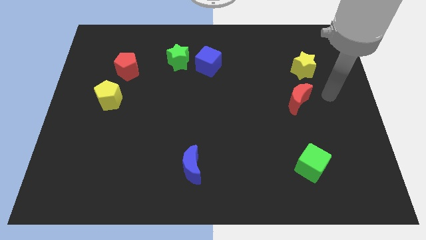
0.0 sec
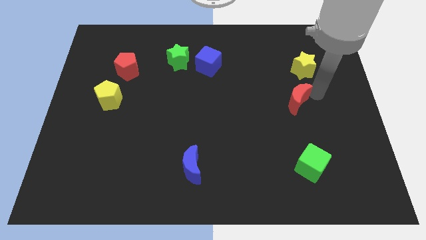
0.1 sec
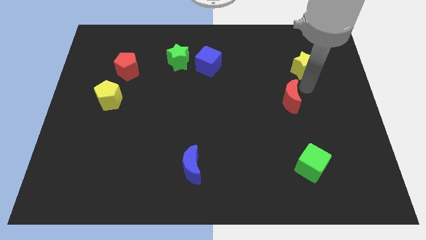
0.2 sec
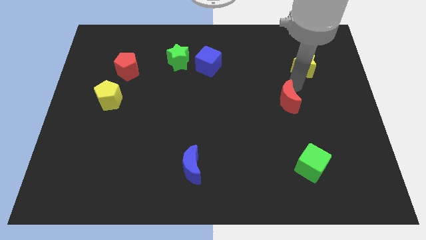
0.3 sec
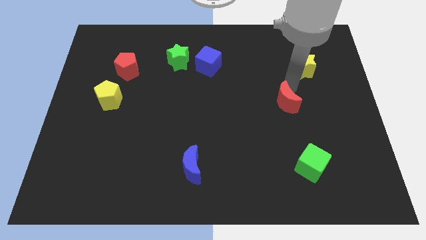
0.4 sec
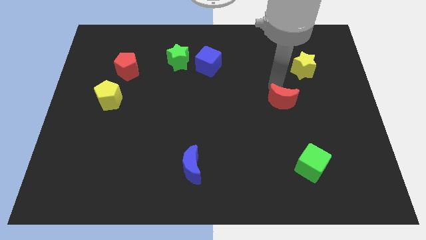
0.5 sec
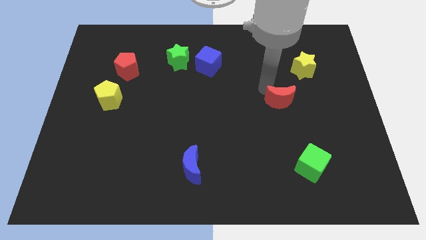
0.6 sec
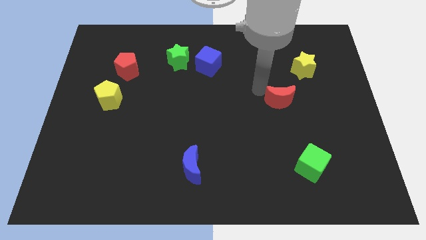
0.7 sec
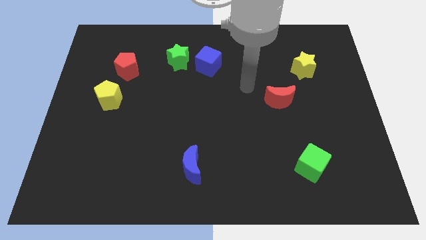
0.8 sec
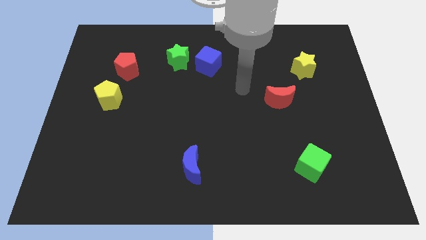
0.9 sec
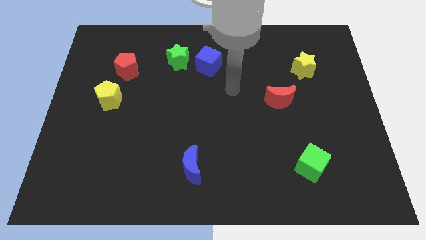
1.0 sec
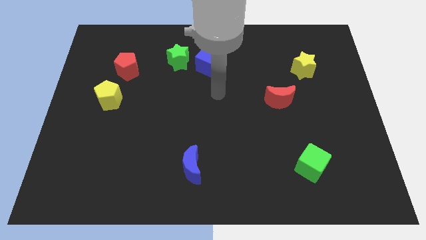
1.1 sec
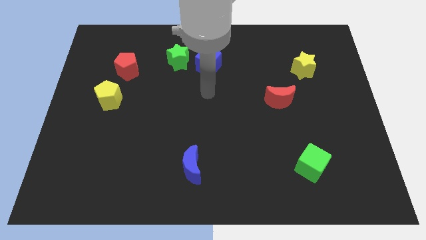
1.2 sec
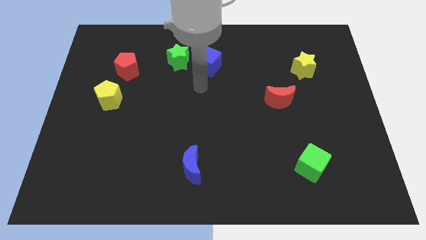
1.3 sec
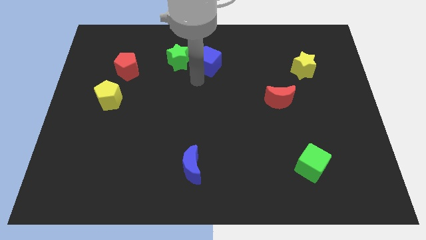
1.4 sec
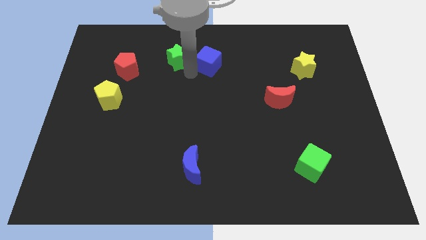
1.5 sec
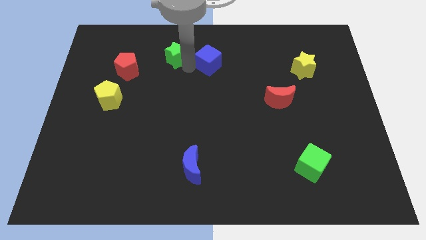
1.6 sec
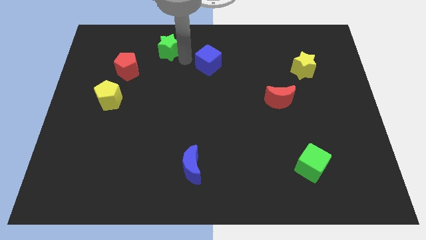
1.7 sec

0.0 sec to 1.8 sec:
move the blue cube away from the green star

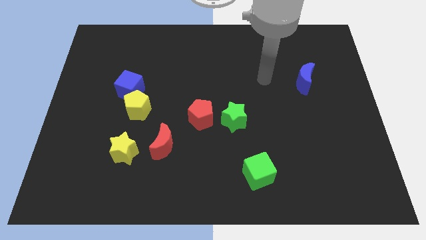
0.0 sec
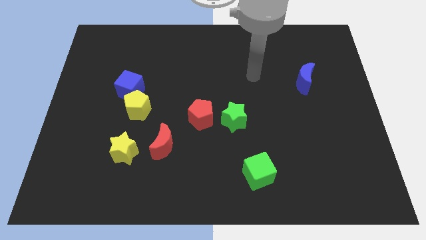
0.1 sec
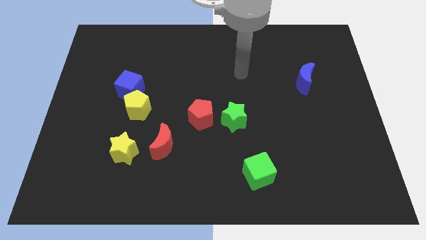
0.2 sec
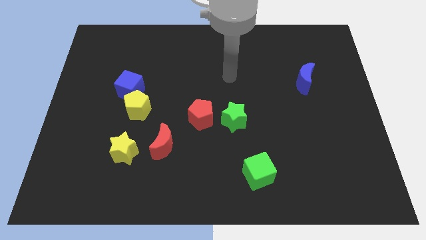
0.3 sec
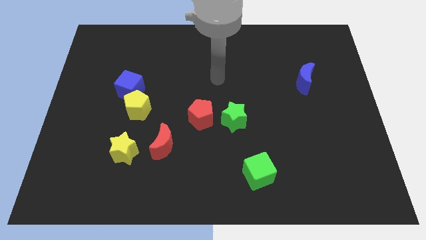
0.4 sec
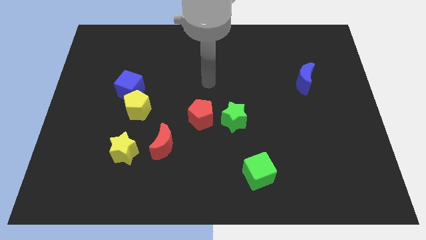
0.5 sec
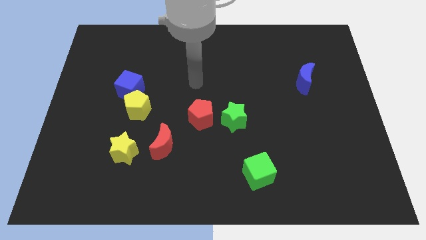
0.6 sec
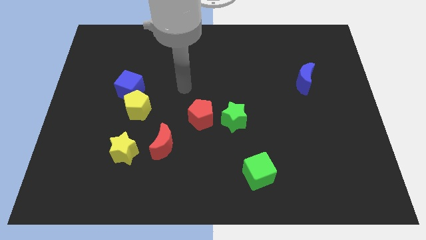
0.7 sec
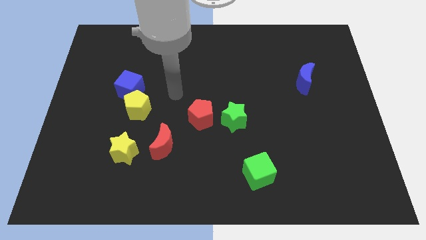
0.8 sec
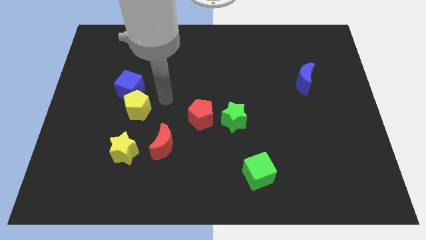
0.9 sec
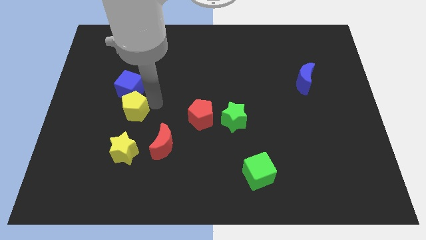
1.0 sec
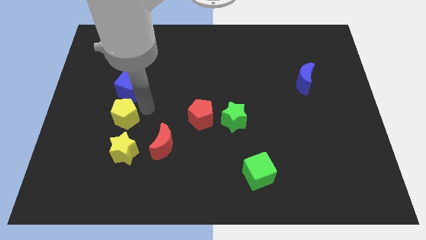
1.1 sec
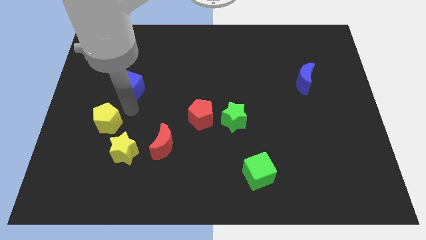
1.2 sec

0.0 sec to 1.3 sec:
move the blue cube away from the yellow pentagon

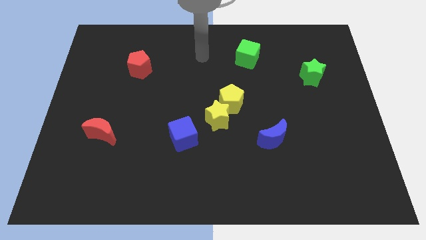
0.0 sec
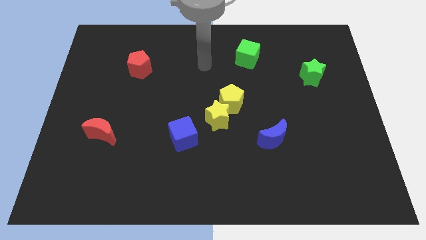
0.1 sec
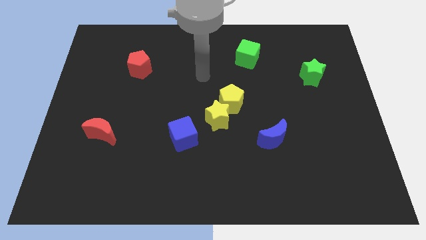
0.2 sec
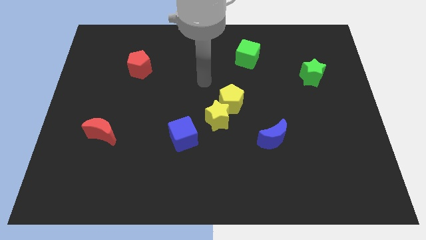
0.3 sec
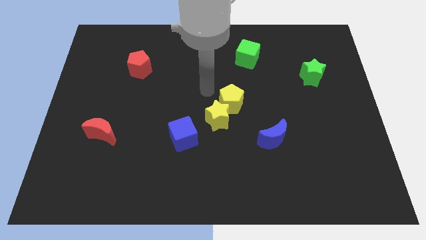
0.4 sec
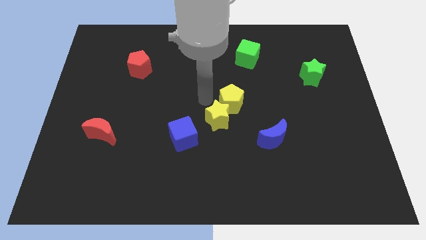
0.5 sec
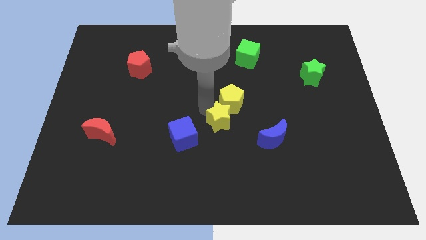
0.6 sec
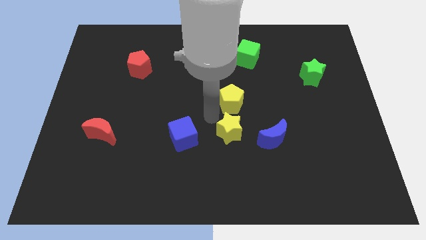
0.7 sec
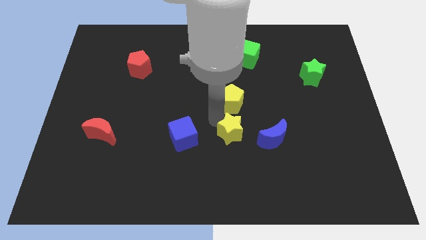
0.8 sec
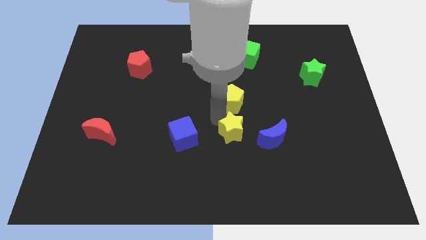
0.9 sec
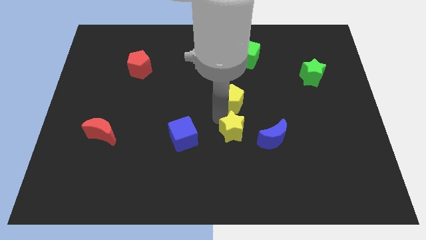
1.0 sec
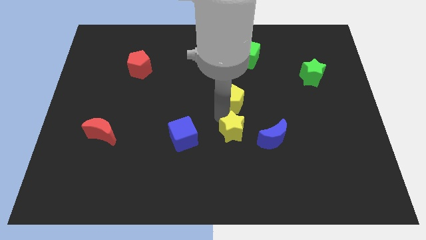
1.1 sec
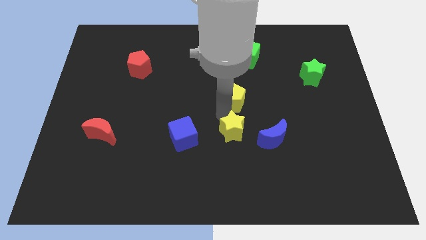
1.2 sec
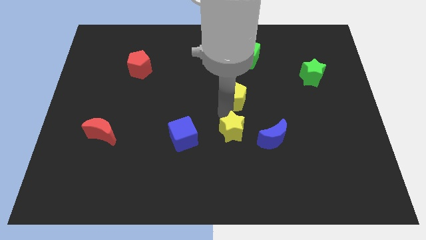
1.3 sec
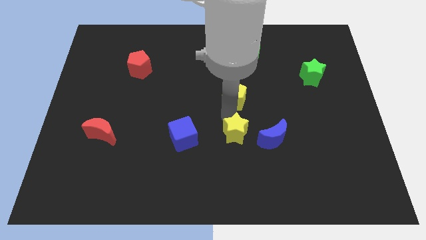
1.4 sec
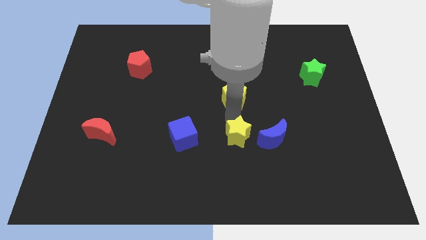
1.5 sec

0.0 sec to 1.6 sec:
pull the yellow pentagon apart from the yellow star

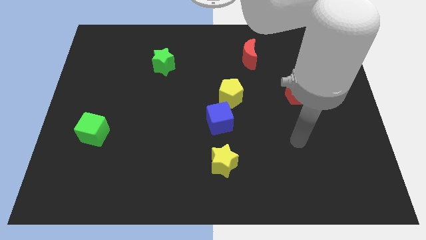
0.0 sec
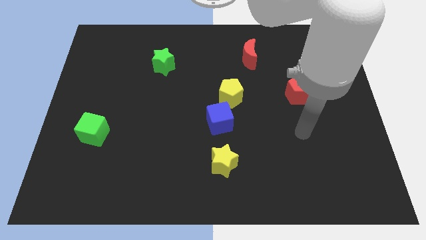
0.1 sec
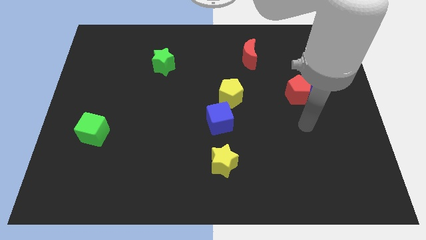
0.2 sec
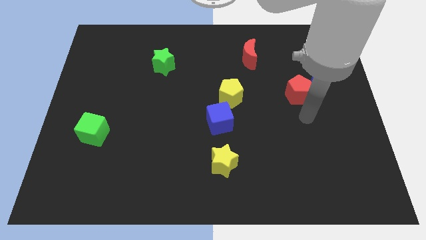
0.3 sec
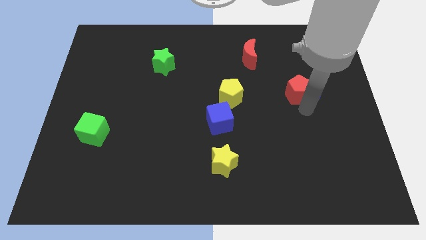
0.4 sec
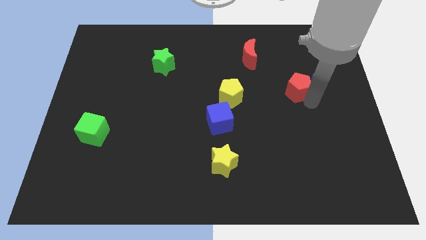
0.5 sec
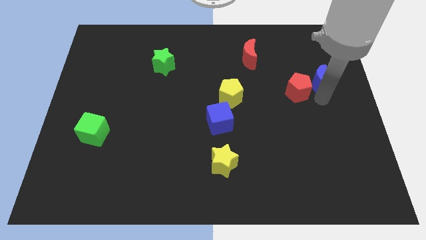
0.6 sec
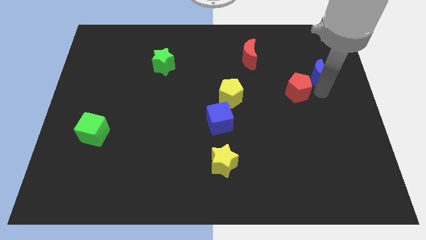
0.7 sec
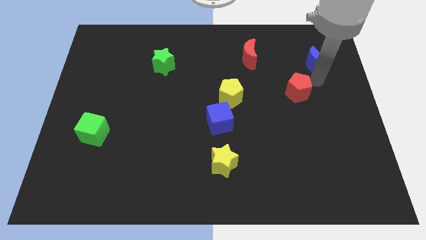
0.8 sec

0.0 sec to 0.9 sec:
move the red pentagon away from the blue moon

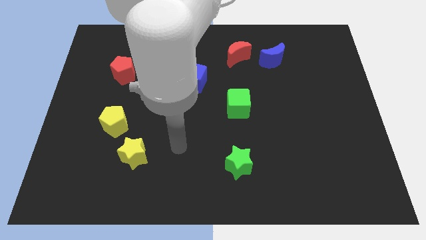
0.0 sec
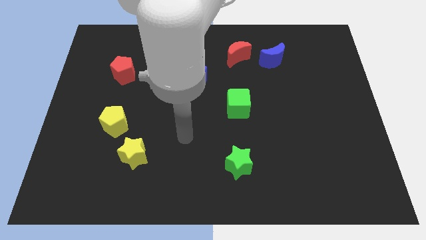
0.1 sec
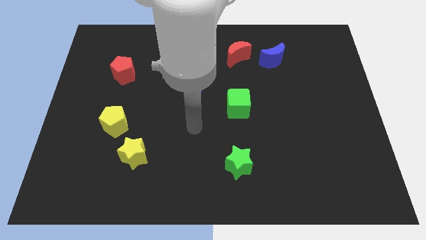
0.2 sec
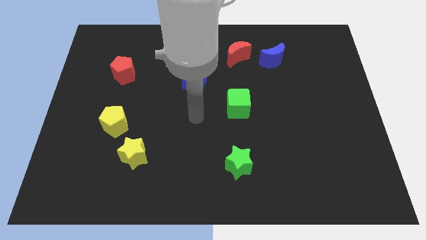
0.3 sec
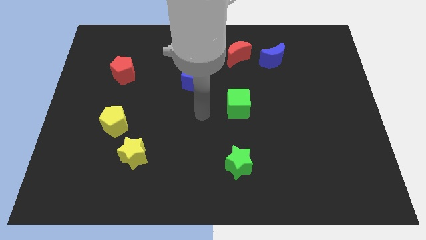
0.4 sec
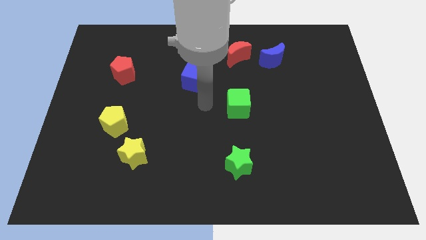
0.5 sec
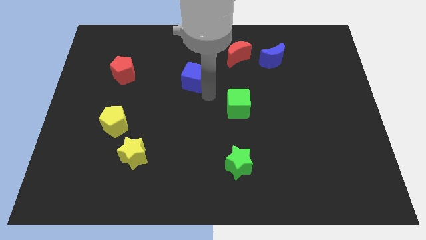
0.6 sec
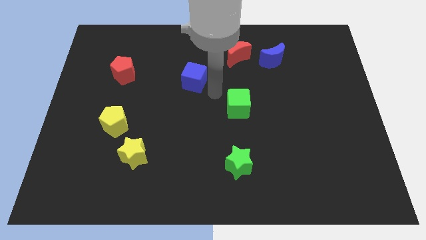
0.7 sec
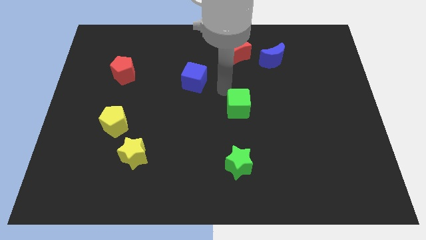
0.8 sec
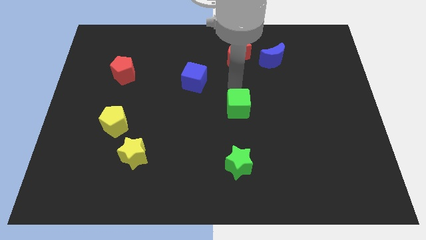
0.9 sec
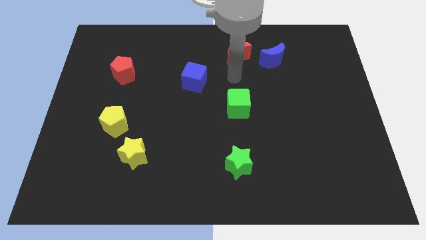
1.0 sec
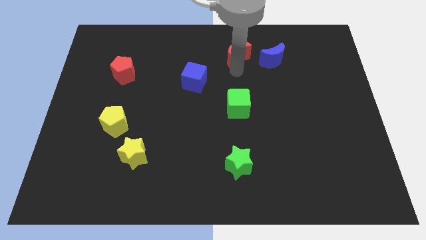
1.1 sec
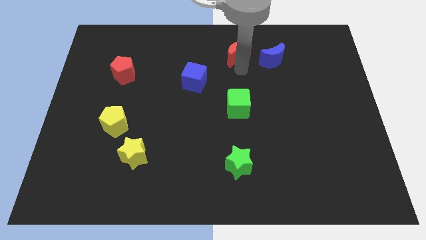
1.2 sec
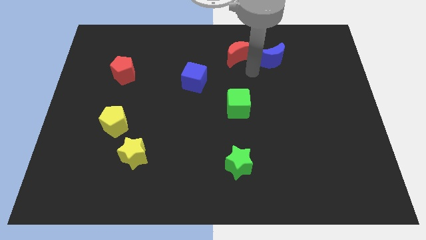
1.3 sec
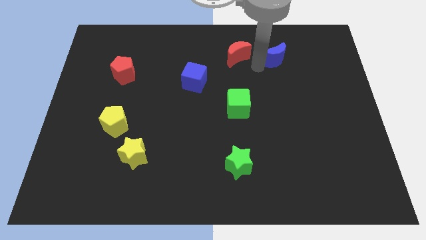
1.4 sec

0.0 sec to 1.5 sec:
separate the red moon from the blue moon

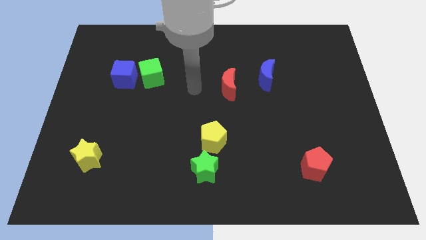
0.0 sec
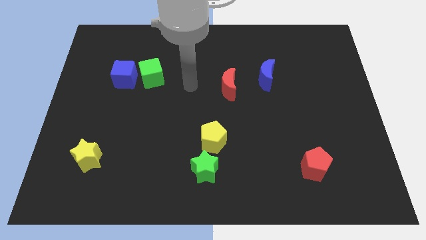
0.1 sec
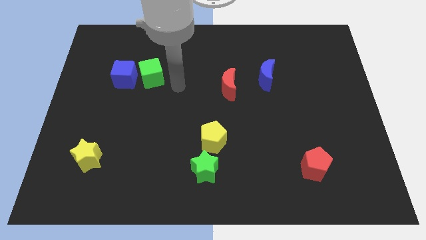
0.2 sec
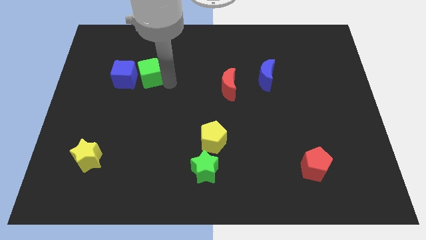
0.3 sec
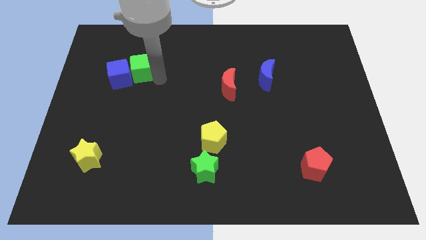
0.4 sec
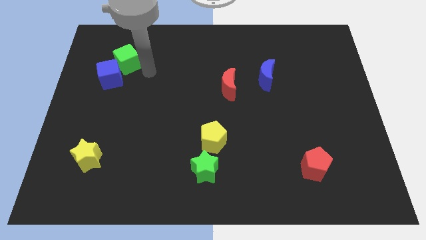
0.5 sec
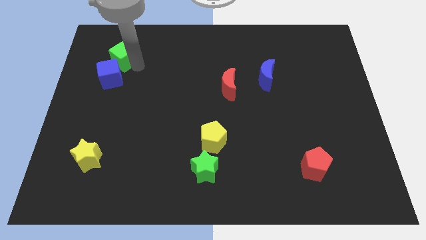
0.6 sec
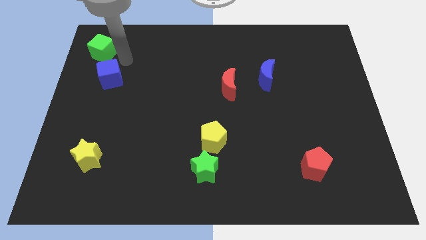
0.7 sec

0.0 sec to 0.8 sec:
move the blue cube away from the green cube

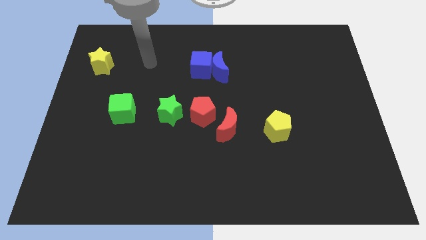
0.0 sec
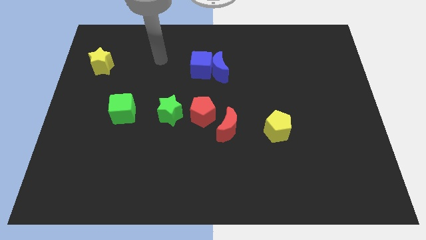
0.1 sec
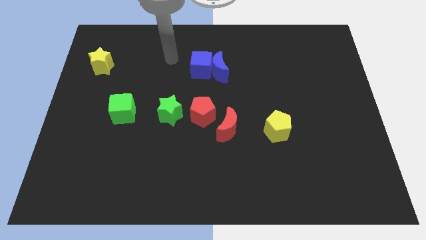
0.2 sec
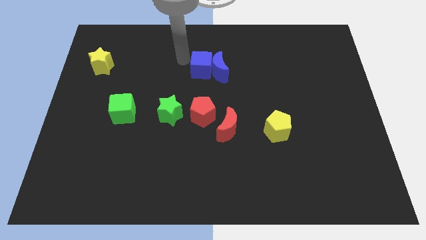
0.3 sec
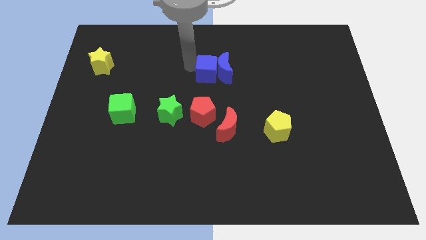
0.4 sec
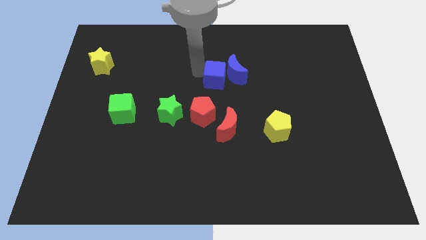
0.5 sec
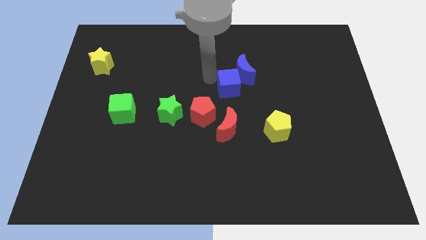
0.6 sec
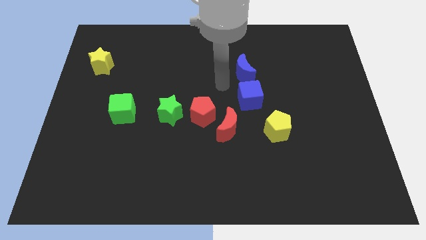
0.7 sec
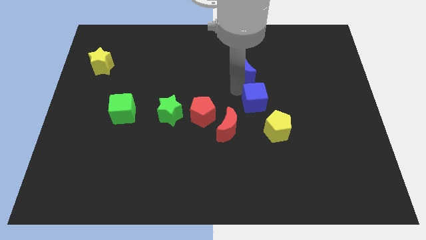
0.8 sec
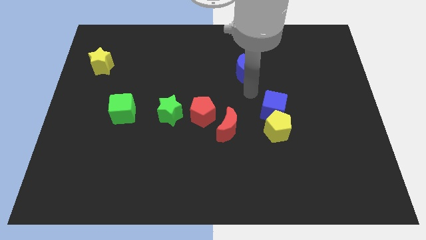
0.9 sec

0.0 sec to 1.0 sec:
separate the blue moon from the blue cube

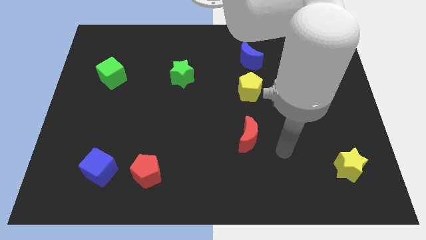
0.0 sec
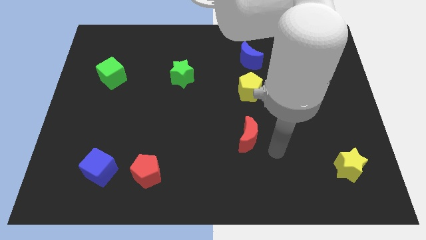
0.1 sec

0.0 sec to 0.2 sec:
pull the red pentagon apart from the blue cube

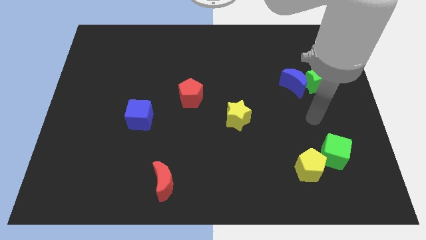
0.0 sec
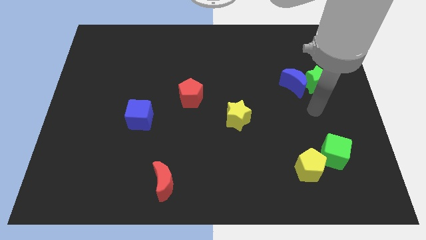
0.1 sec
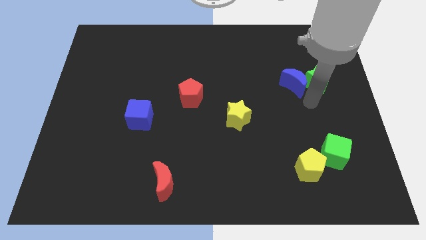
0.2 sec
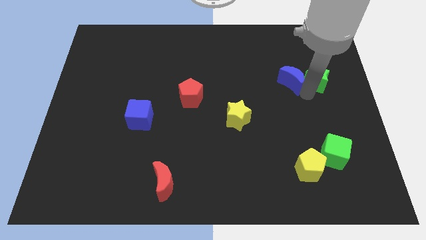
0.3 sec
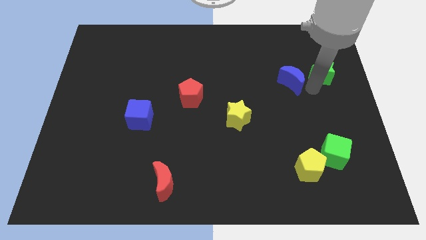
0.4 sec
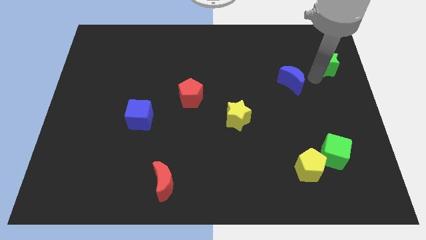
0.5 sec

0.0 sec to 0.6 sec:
move the blue moon away from the green star
